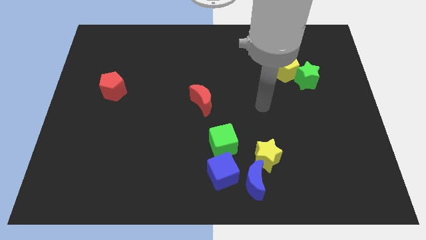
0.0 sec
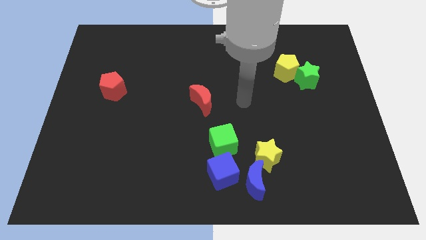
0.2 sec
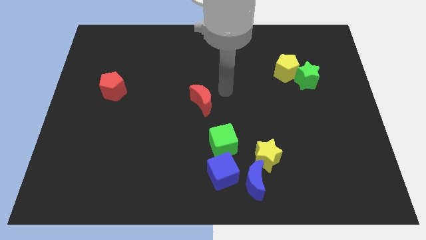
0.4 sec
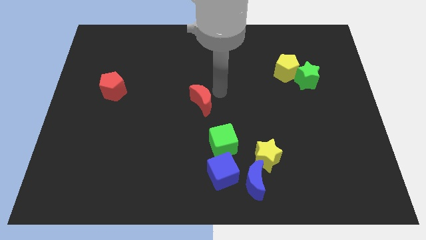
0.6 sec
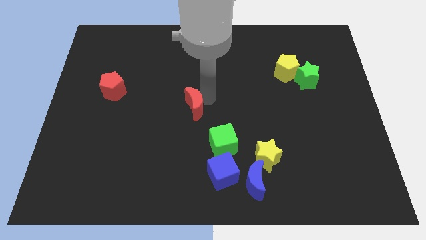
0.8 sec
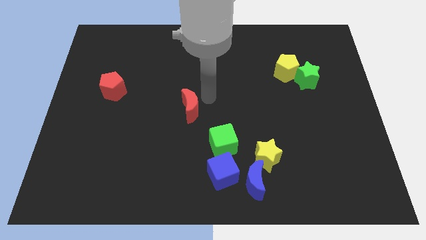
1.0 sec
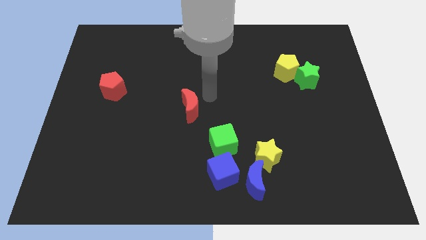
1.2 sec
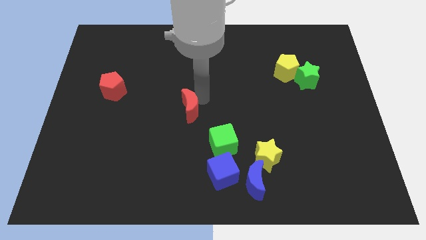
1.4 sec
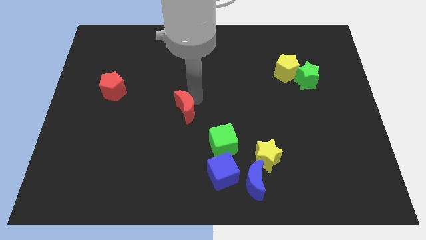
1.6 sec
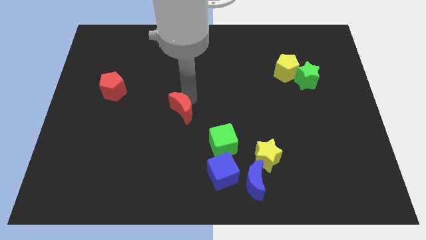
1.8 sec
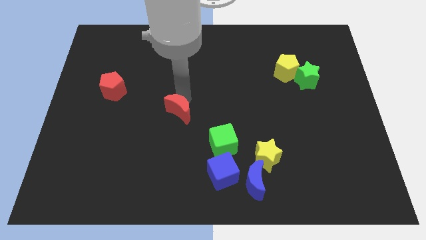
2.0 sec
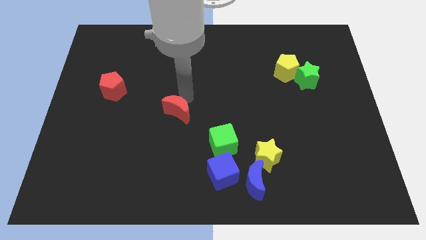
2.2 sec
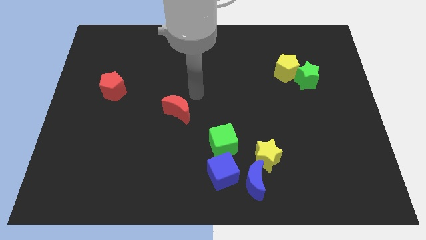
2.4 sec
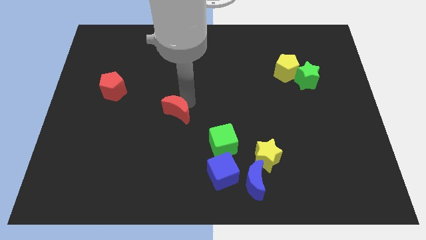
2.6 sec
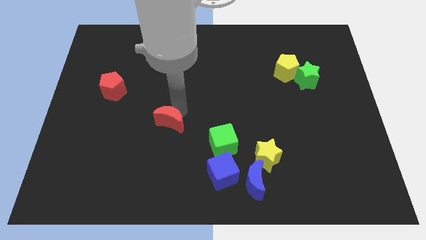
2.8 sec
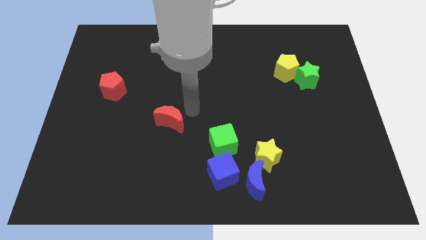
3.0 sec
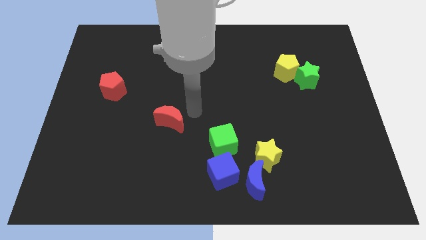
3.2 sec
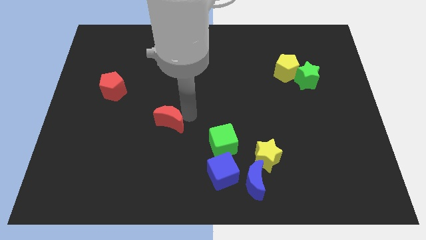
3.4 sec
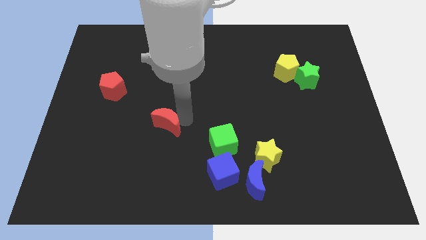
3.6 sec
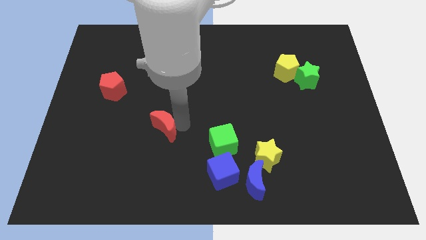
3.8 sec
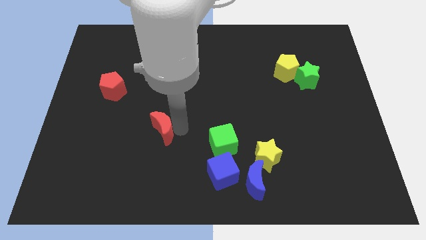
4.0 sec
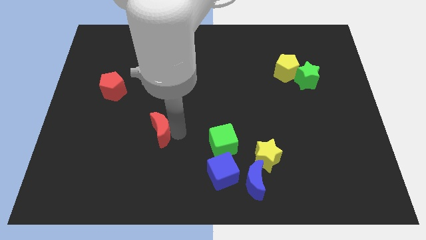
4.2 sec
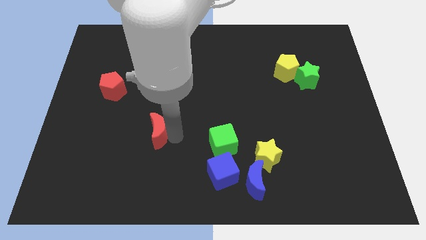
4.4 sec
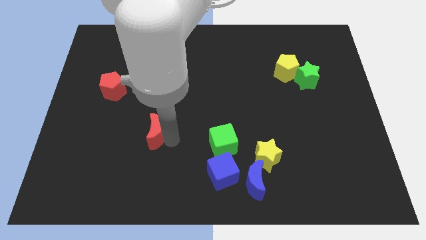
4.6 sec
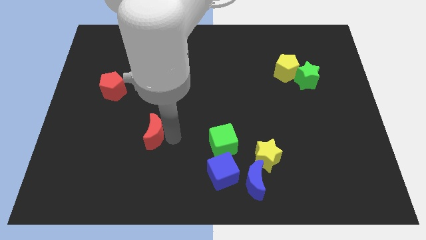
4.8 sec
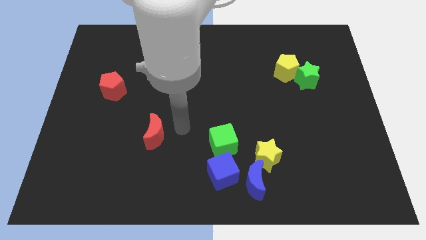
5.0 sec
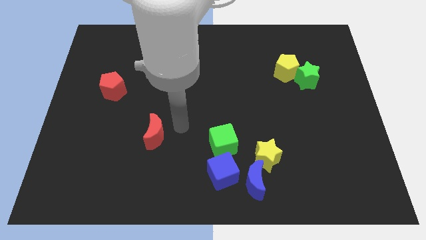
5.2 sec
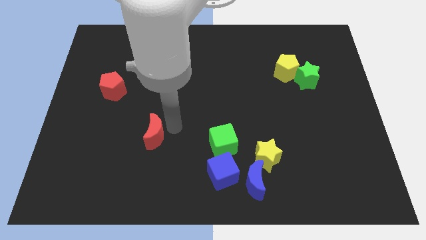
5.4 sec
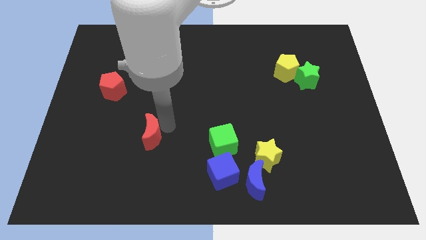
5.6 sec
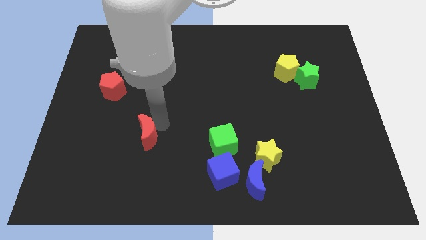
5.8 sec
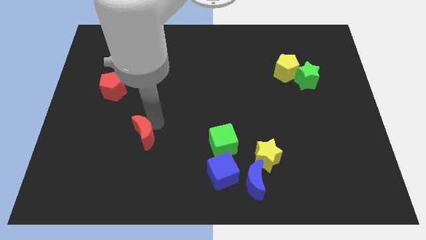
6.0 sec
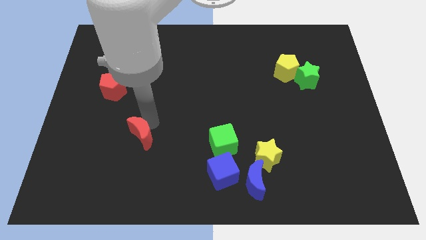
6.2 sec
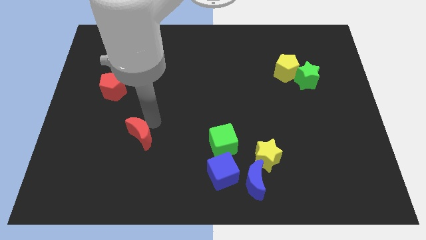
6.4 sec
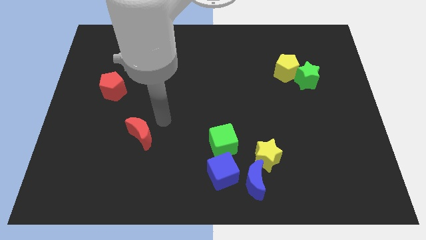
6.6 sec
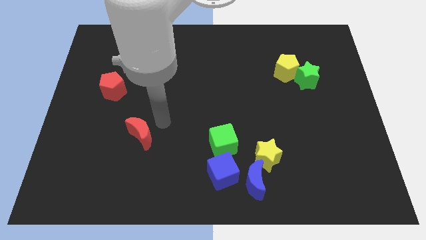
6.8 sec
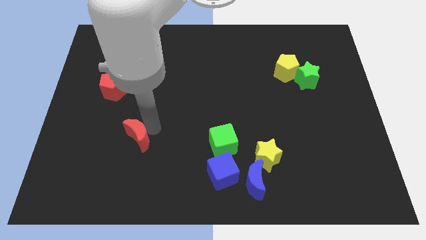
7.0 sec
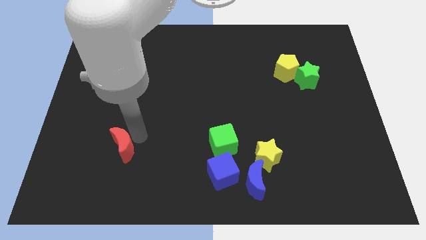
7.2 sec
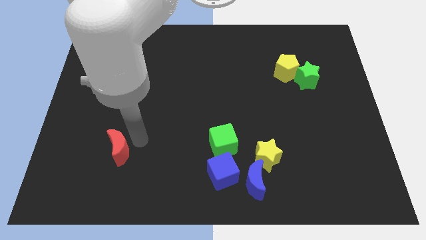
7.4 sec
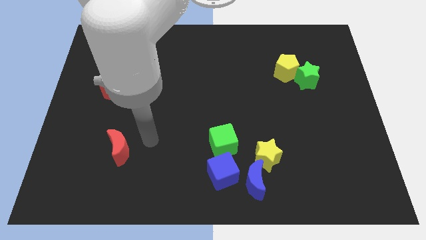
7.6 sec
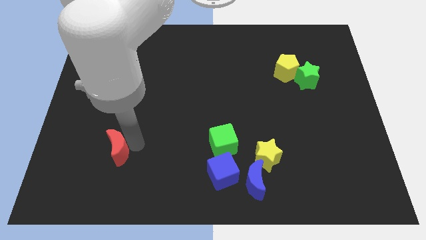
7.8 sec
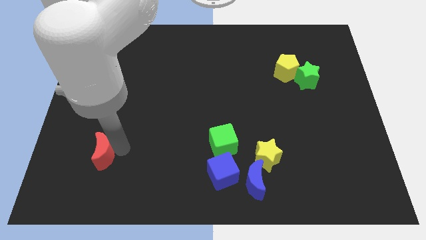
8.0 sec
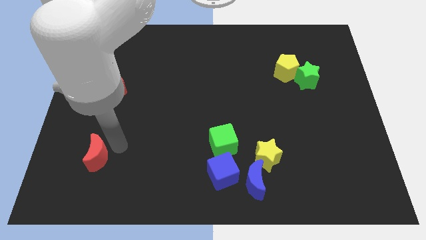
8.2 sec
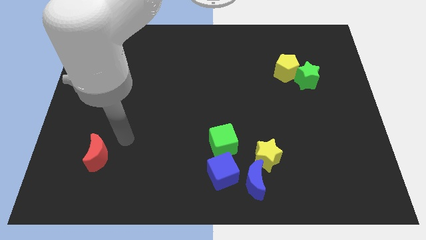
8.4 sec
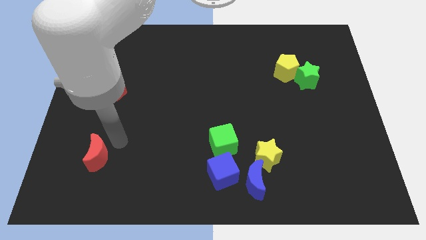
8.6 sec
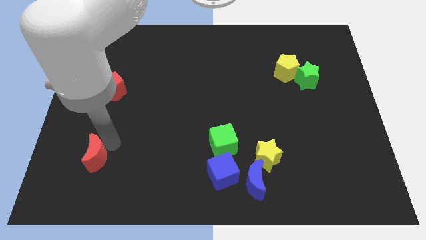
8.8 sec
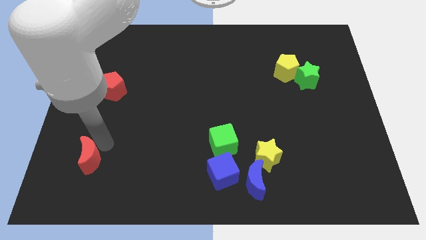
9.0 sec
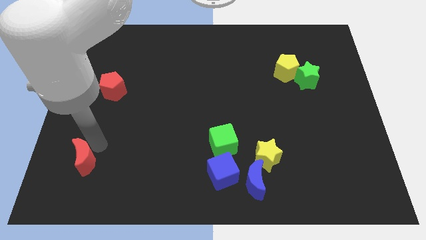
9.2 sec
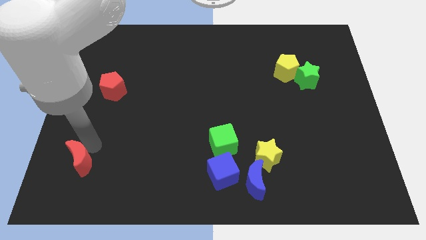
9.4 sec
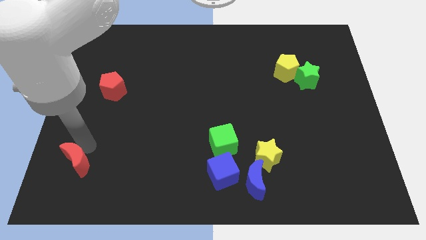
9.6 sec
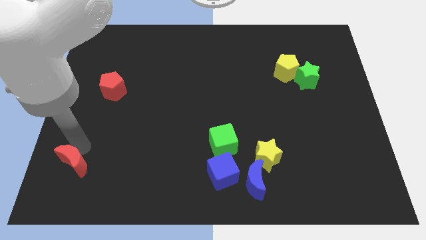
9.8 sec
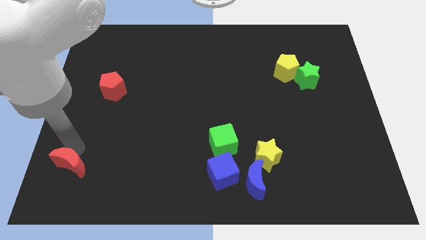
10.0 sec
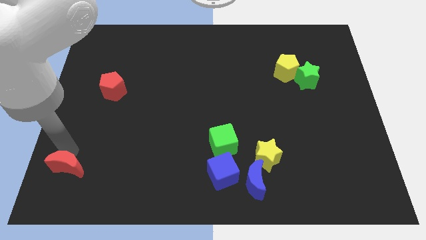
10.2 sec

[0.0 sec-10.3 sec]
push the red moon to the bottom left
